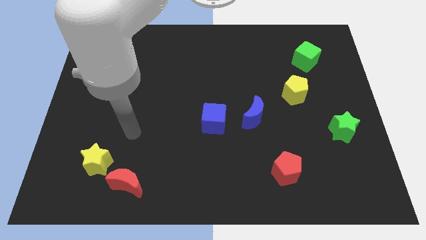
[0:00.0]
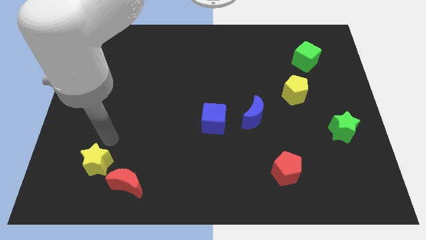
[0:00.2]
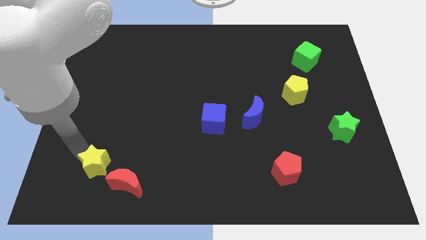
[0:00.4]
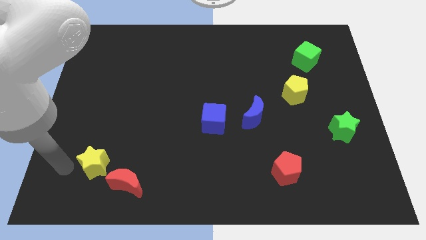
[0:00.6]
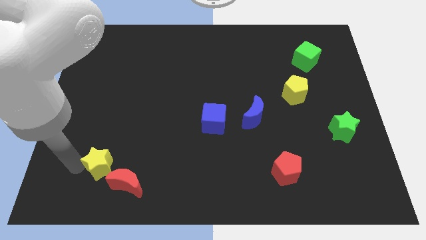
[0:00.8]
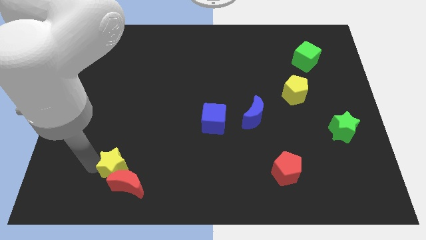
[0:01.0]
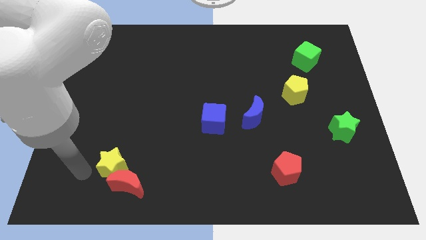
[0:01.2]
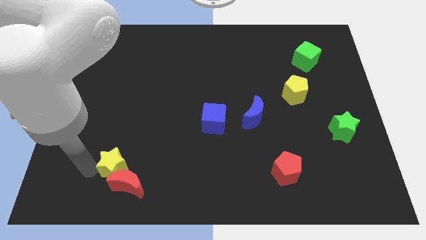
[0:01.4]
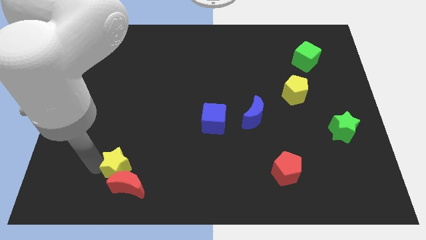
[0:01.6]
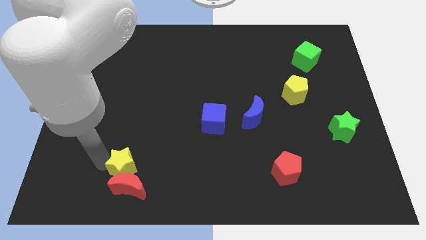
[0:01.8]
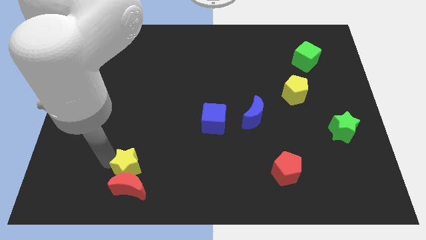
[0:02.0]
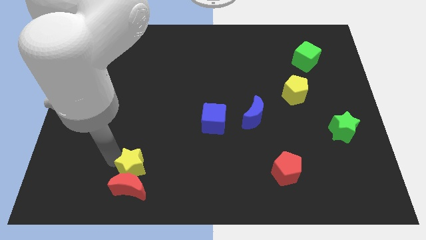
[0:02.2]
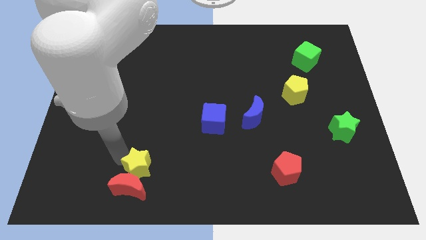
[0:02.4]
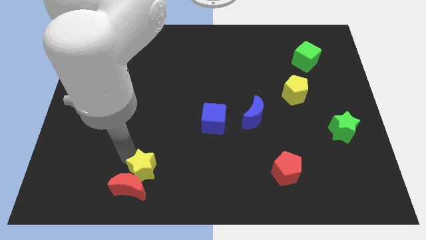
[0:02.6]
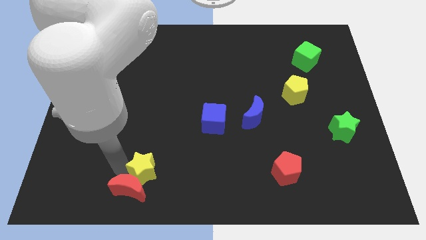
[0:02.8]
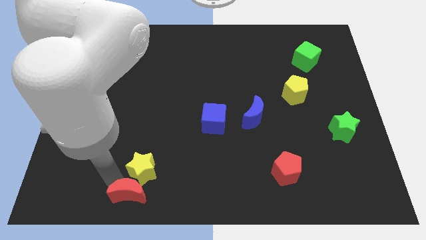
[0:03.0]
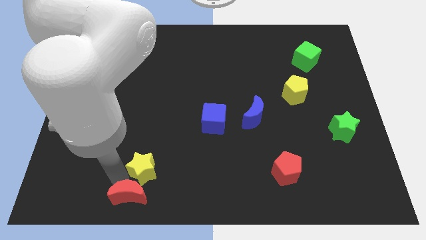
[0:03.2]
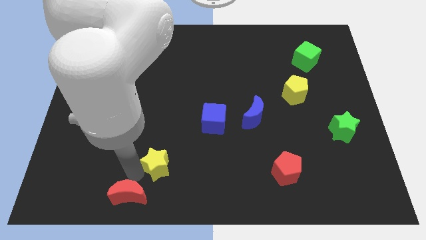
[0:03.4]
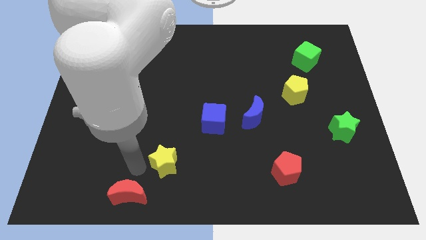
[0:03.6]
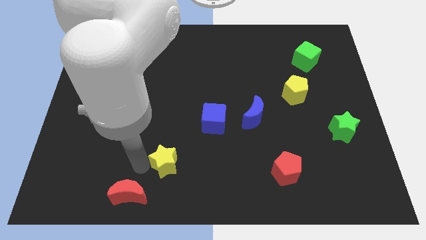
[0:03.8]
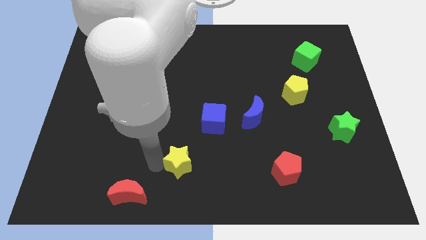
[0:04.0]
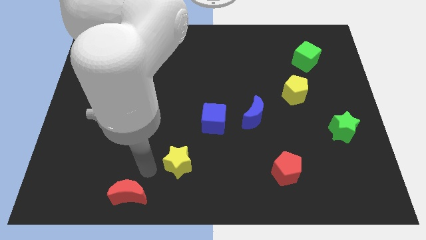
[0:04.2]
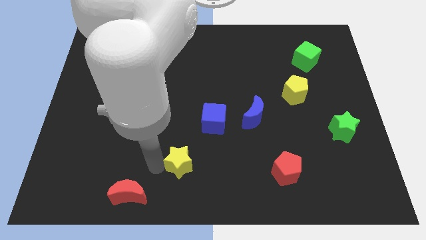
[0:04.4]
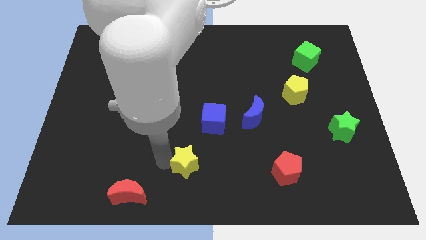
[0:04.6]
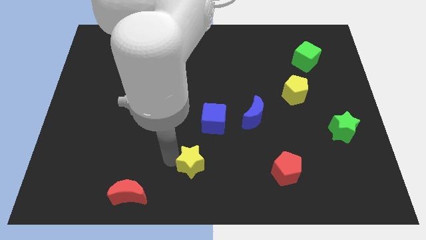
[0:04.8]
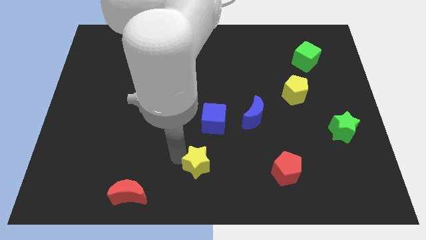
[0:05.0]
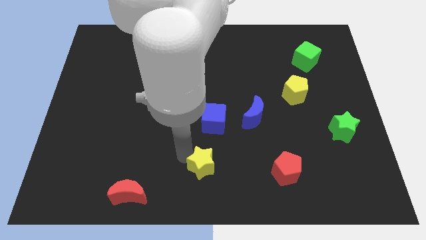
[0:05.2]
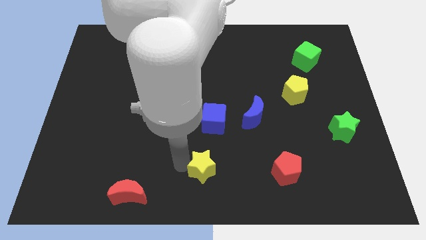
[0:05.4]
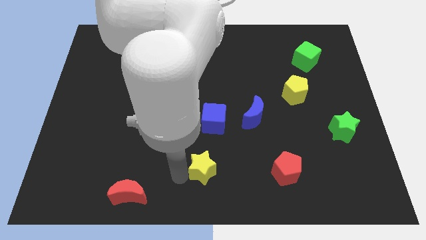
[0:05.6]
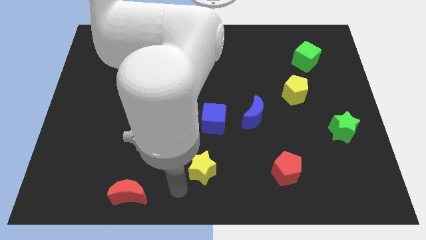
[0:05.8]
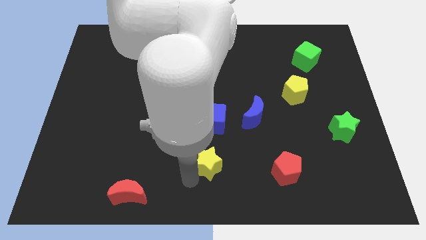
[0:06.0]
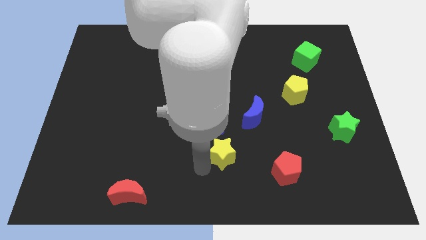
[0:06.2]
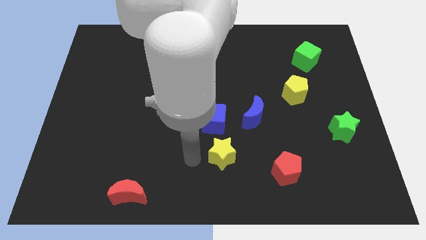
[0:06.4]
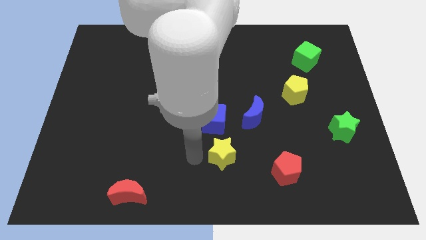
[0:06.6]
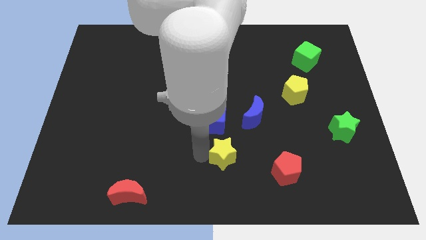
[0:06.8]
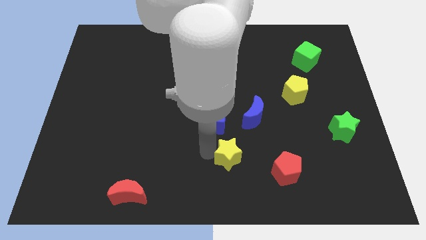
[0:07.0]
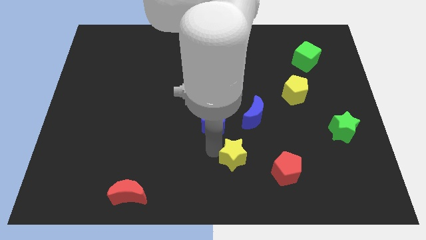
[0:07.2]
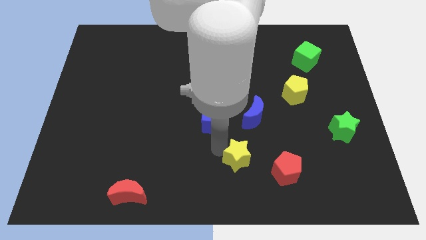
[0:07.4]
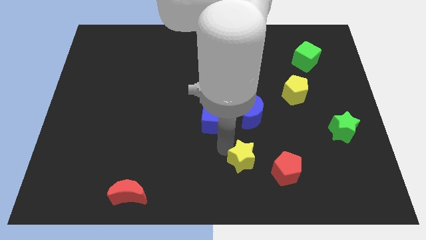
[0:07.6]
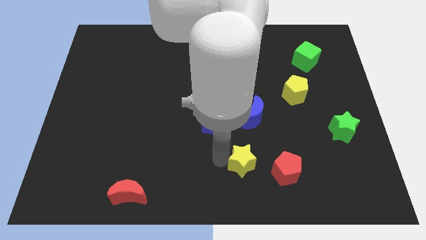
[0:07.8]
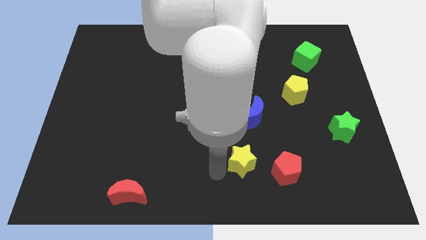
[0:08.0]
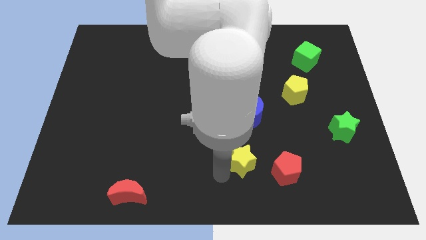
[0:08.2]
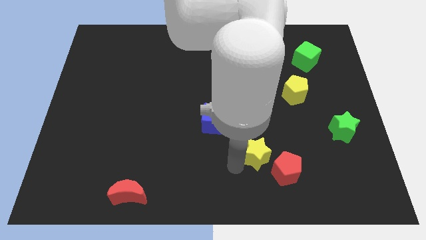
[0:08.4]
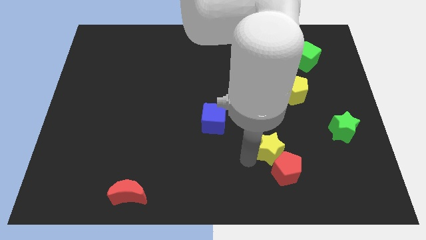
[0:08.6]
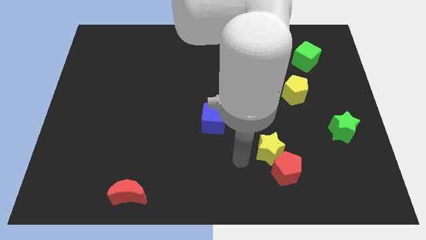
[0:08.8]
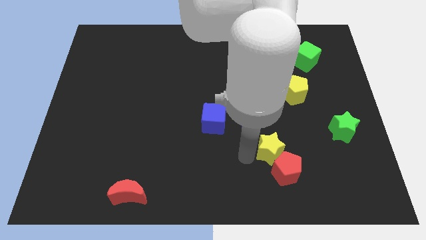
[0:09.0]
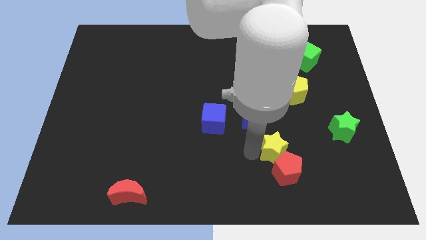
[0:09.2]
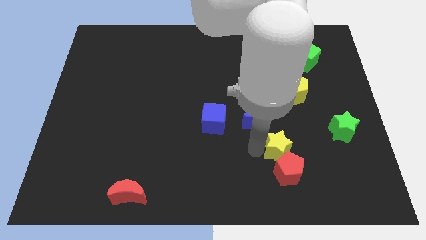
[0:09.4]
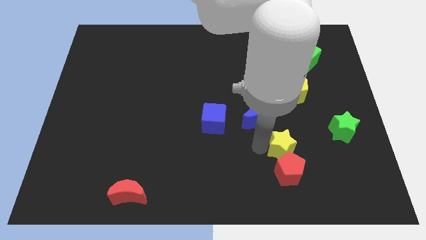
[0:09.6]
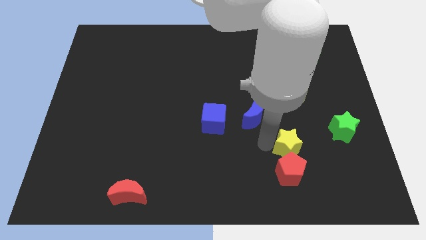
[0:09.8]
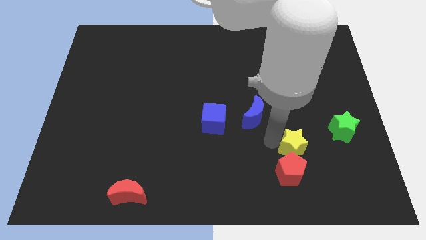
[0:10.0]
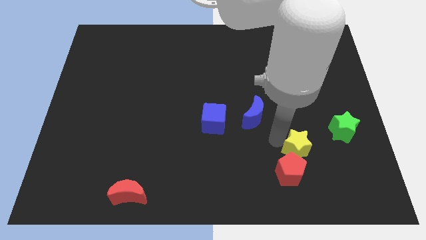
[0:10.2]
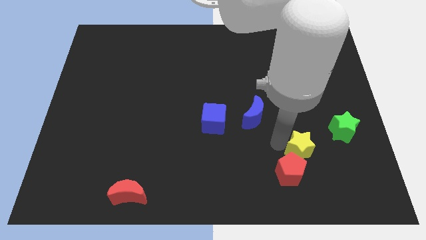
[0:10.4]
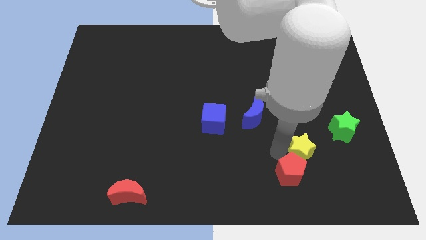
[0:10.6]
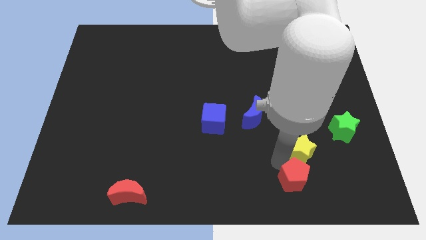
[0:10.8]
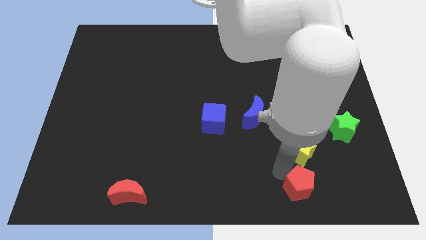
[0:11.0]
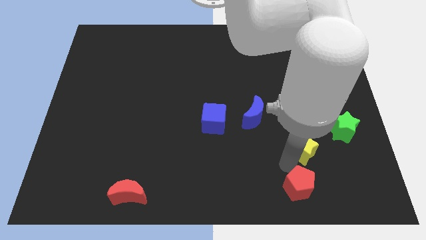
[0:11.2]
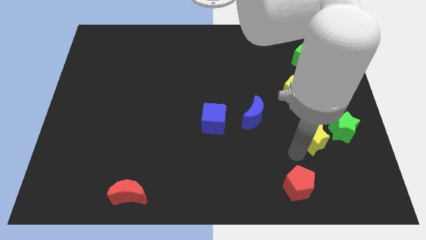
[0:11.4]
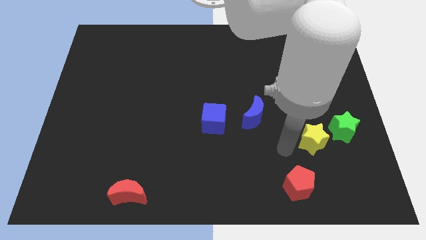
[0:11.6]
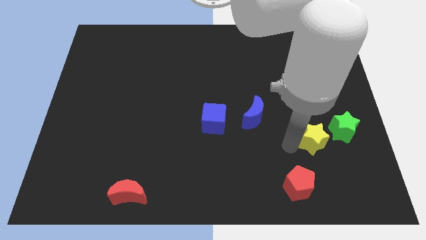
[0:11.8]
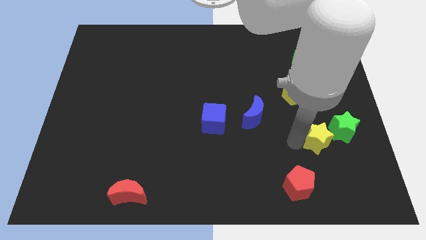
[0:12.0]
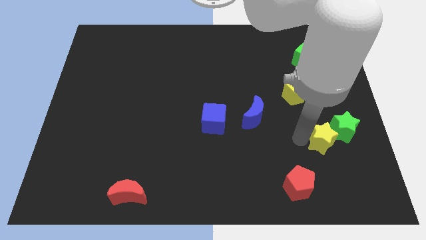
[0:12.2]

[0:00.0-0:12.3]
push the yellow star towards the green star
